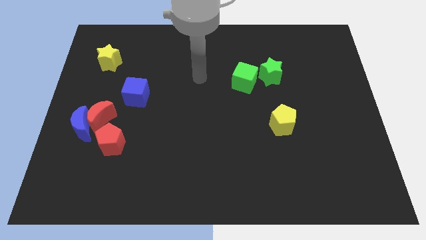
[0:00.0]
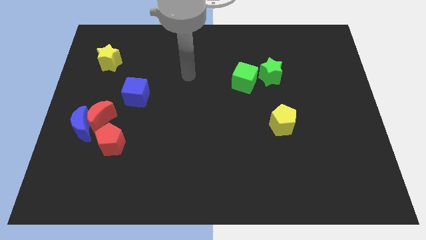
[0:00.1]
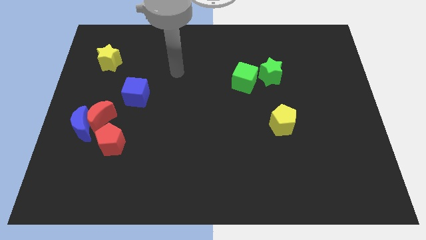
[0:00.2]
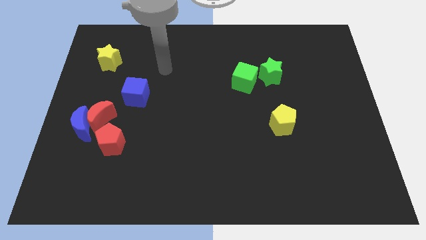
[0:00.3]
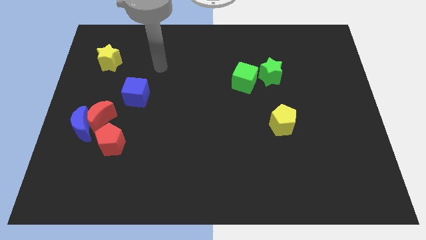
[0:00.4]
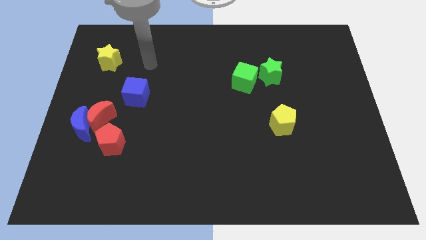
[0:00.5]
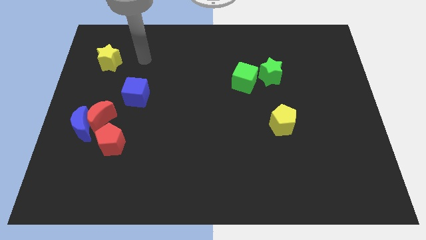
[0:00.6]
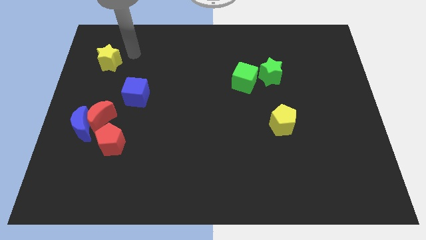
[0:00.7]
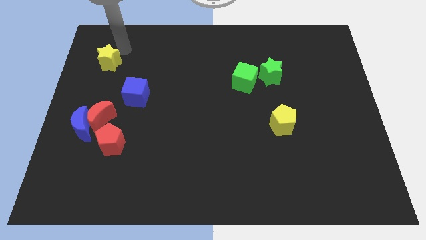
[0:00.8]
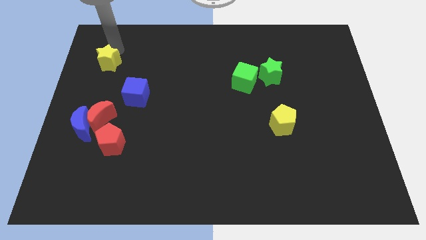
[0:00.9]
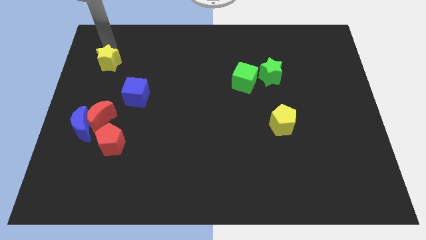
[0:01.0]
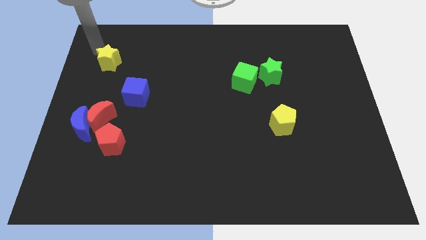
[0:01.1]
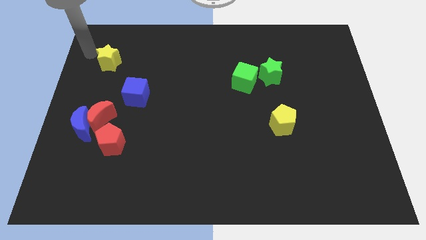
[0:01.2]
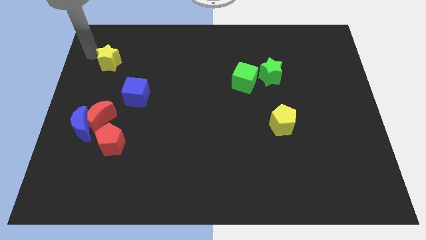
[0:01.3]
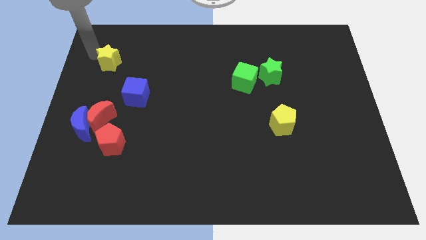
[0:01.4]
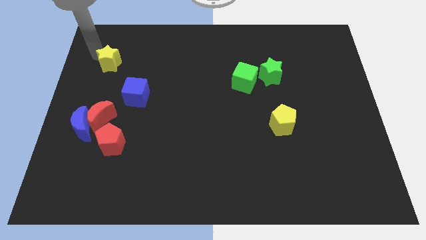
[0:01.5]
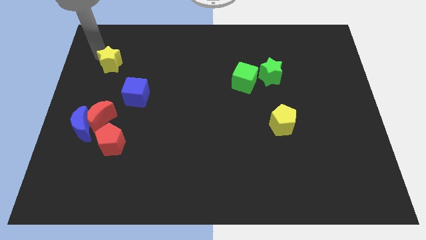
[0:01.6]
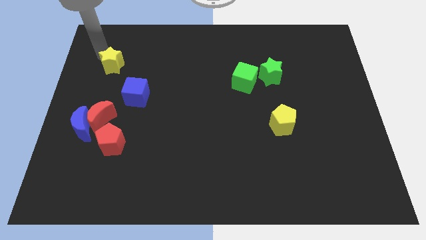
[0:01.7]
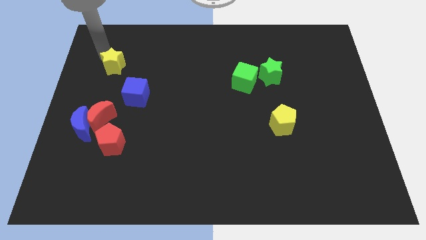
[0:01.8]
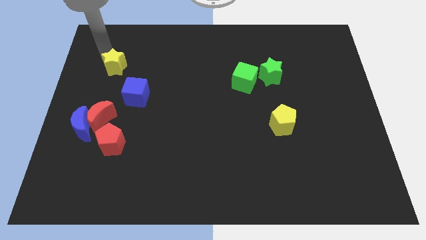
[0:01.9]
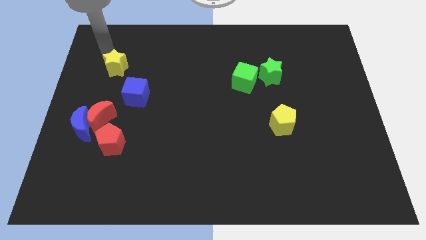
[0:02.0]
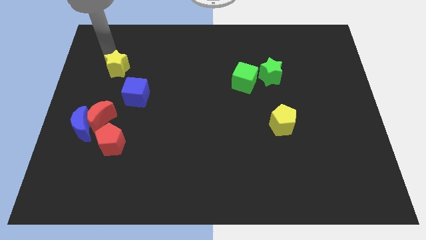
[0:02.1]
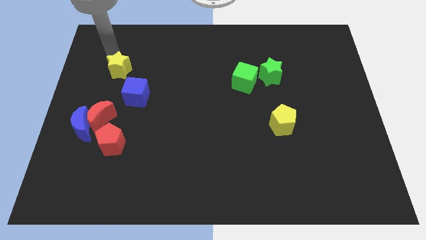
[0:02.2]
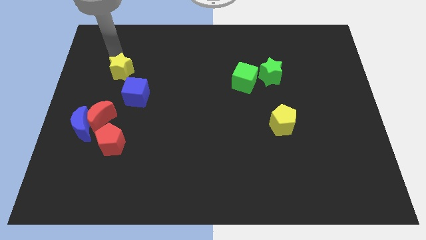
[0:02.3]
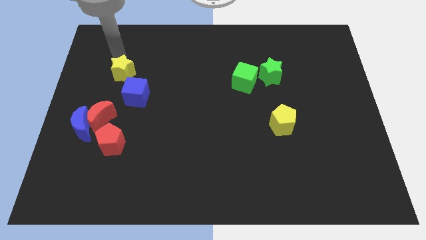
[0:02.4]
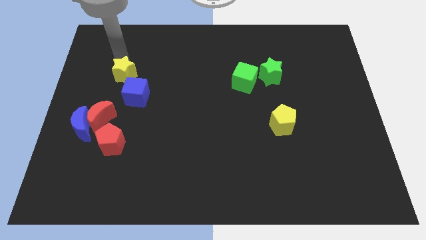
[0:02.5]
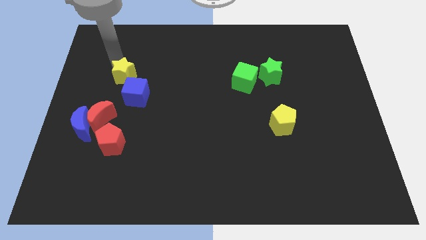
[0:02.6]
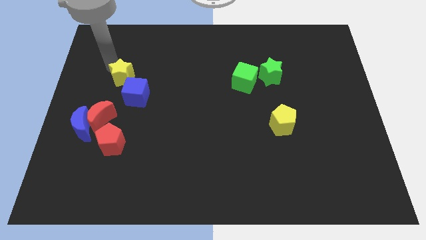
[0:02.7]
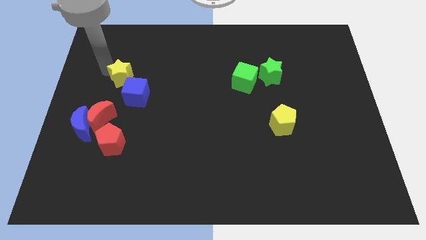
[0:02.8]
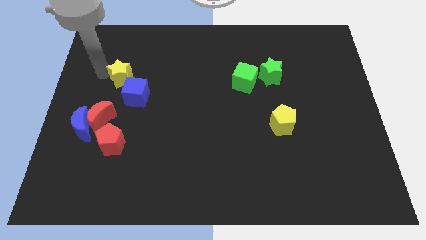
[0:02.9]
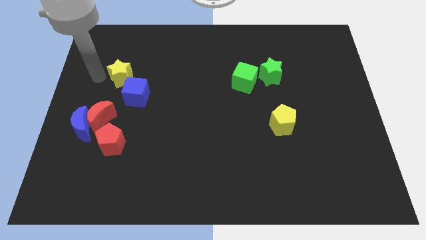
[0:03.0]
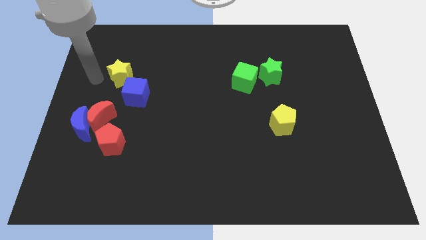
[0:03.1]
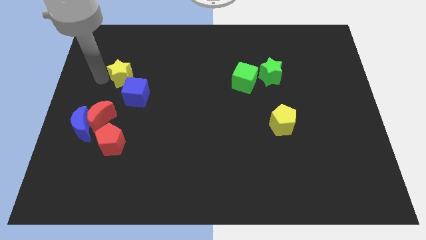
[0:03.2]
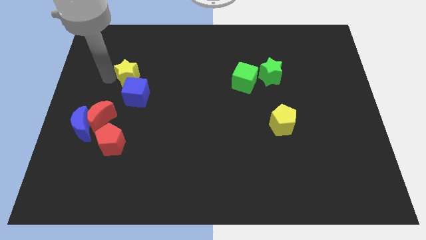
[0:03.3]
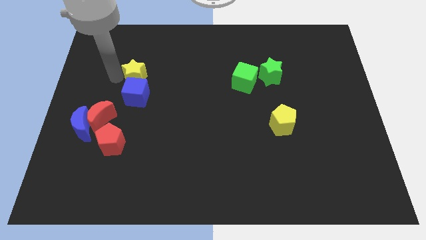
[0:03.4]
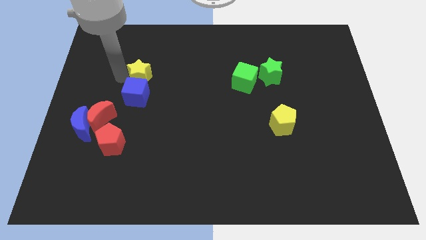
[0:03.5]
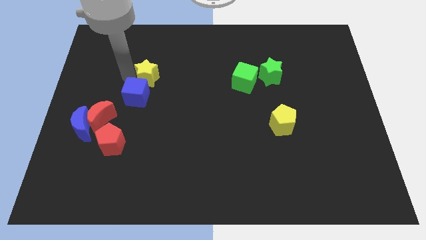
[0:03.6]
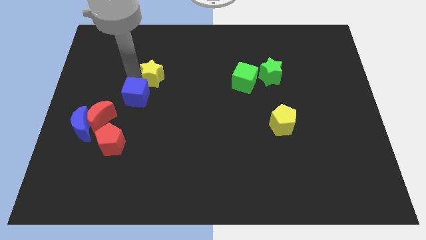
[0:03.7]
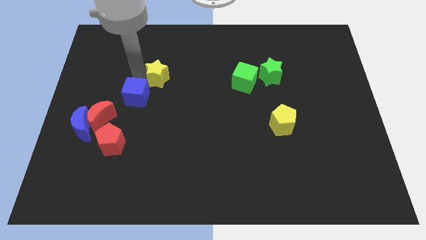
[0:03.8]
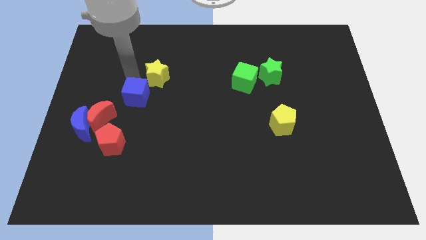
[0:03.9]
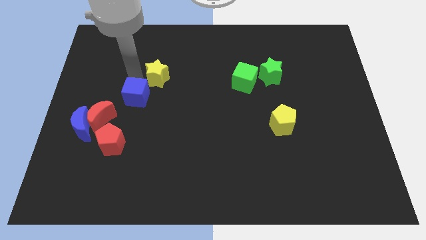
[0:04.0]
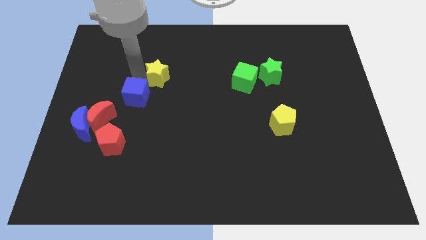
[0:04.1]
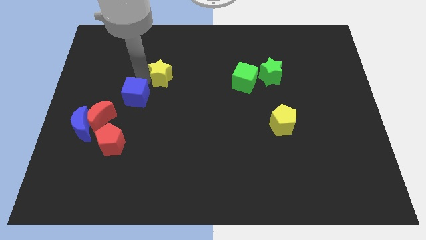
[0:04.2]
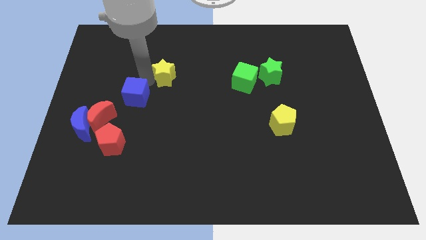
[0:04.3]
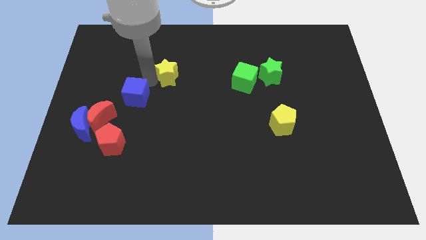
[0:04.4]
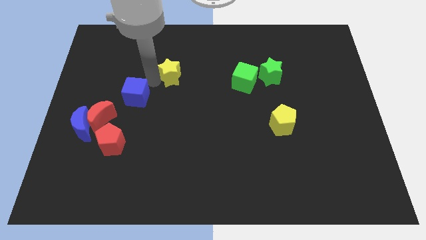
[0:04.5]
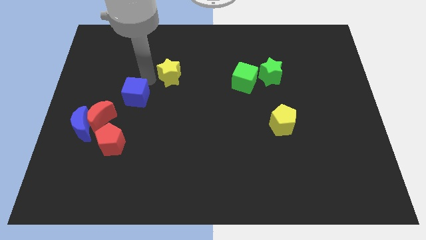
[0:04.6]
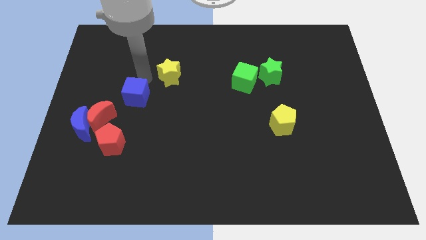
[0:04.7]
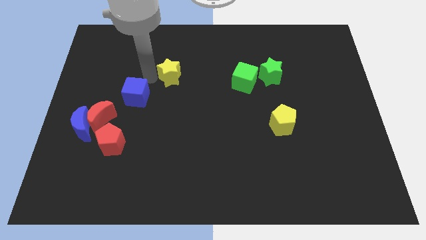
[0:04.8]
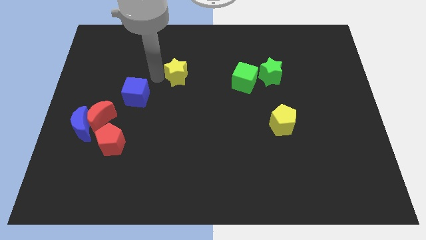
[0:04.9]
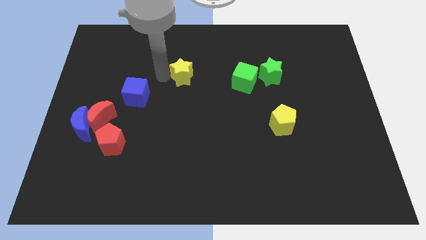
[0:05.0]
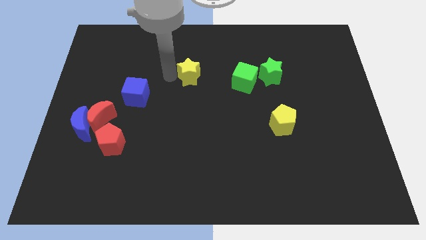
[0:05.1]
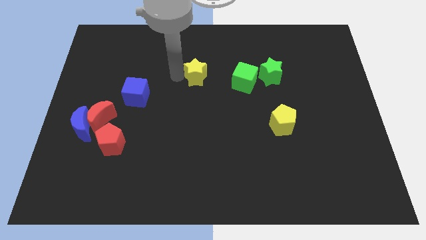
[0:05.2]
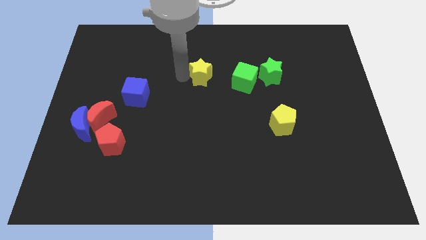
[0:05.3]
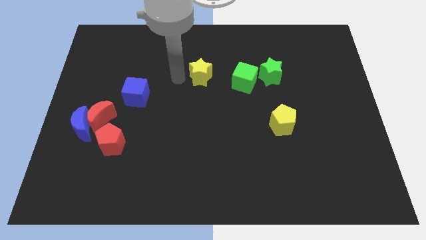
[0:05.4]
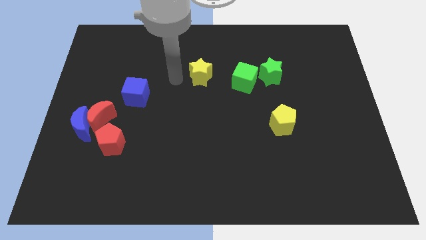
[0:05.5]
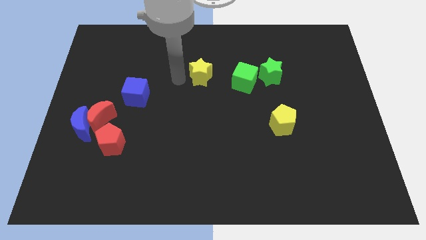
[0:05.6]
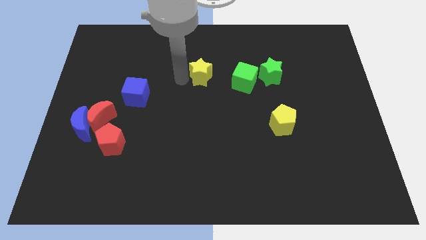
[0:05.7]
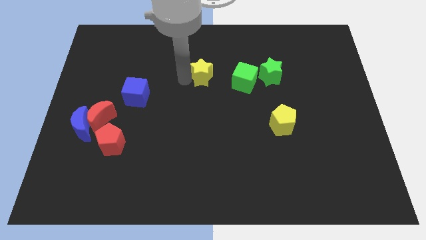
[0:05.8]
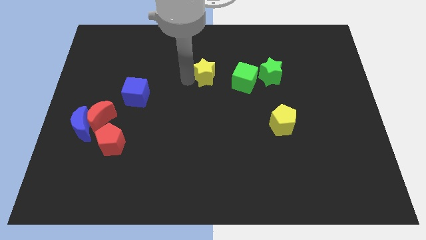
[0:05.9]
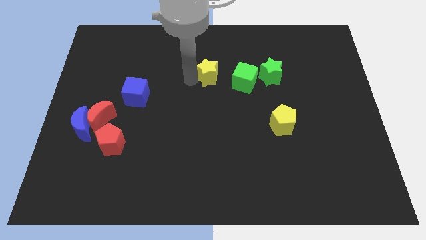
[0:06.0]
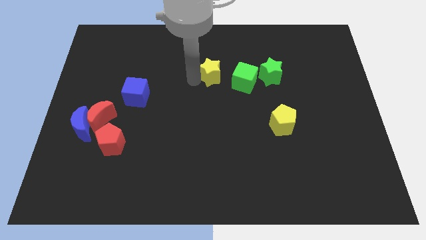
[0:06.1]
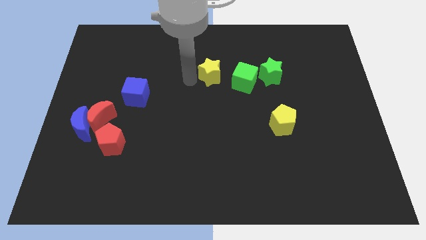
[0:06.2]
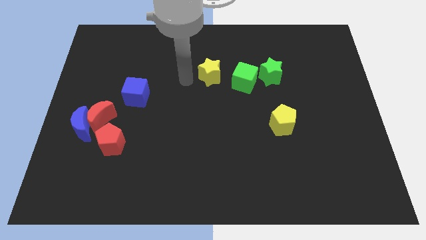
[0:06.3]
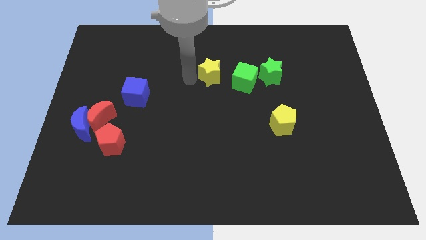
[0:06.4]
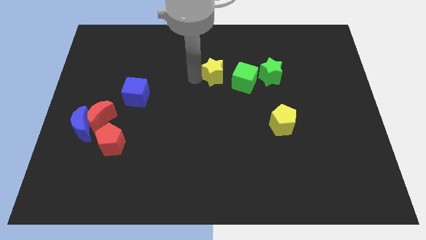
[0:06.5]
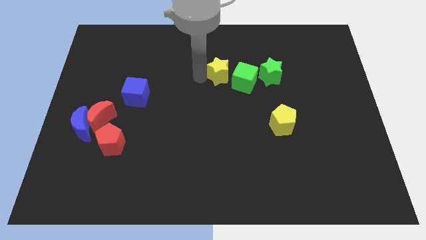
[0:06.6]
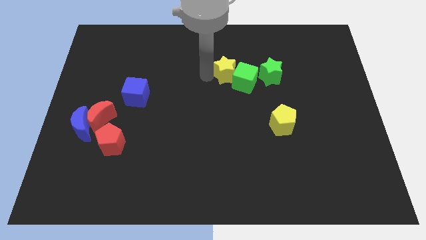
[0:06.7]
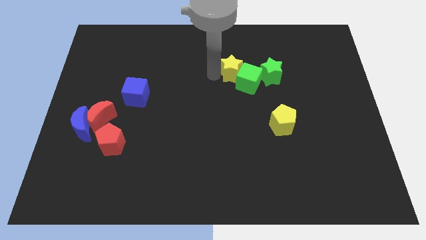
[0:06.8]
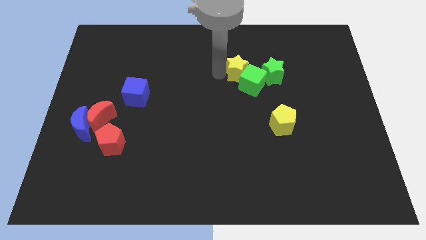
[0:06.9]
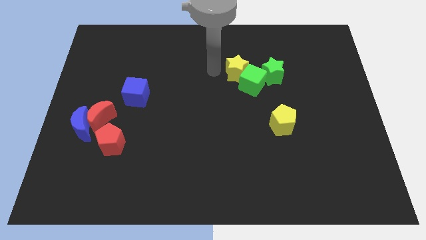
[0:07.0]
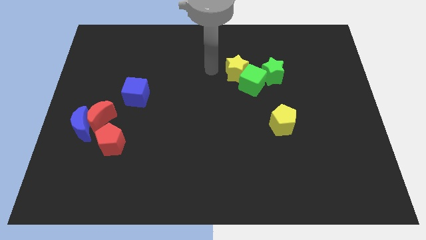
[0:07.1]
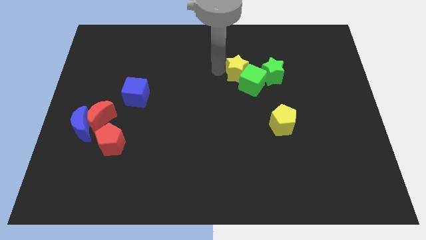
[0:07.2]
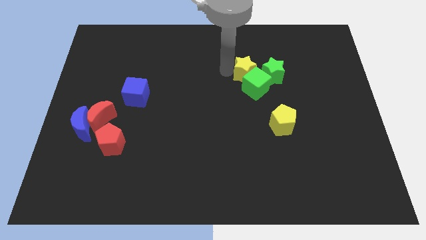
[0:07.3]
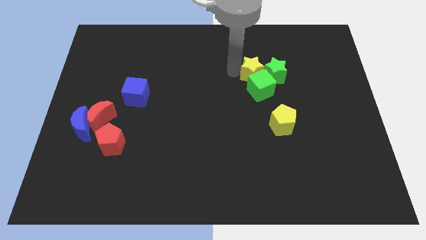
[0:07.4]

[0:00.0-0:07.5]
push the yellow star next to the green star
